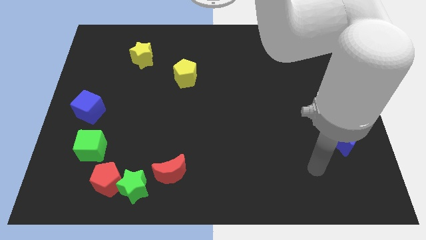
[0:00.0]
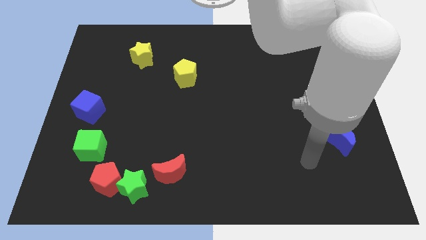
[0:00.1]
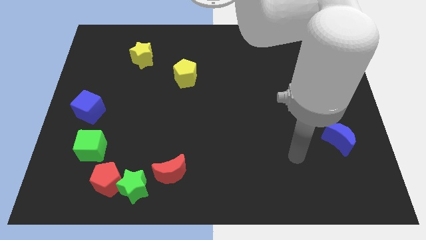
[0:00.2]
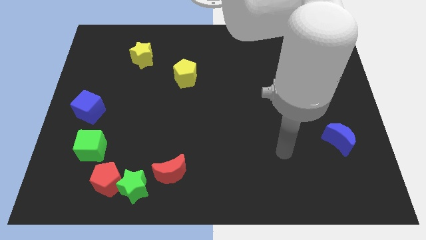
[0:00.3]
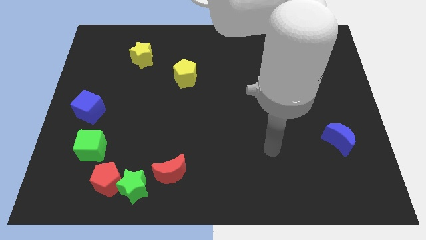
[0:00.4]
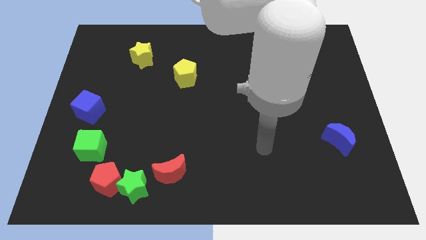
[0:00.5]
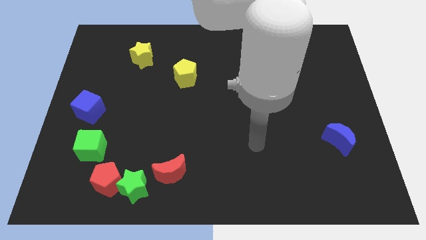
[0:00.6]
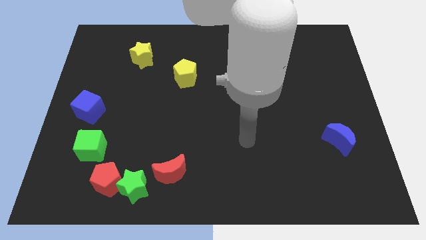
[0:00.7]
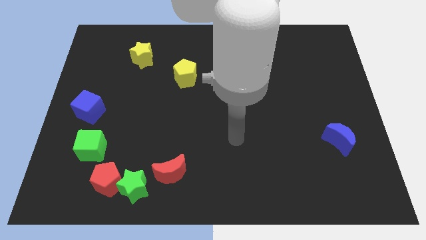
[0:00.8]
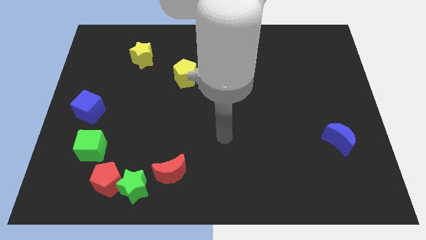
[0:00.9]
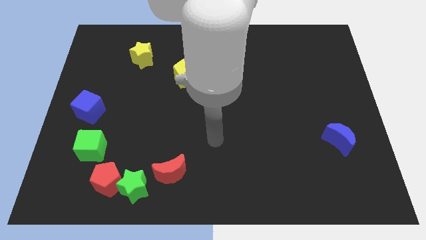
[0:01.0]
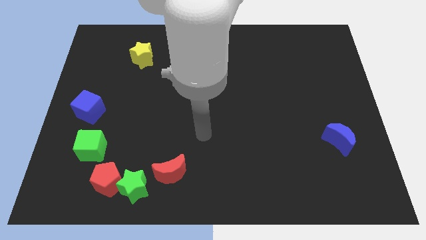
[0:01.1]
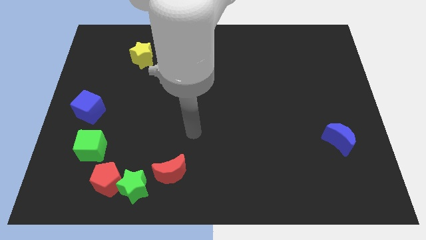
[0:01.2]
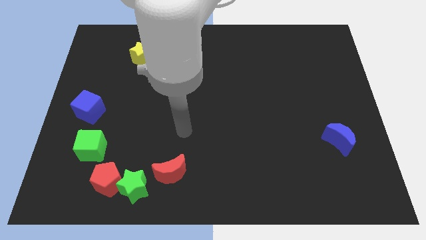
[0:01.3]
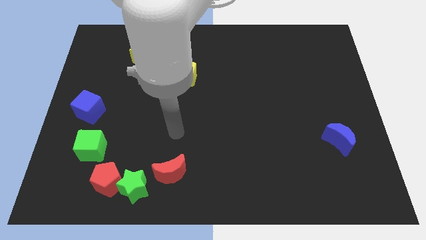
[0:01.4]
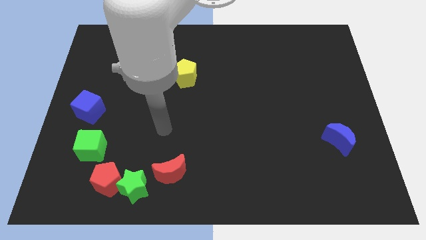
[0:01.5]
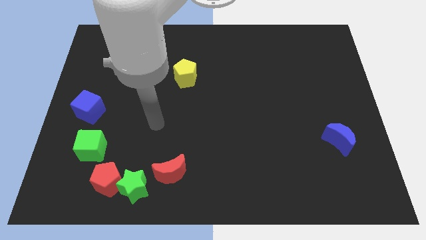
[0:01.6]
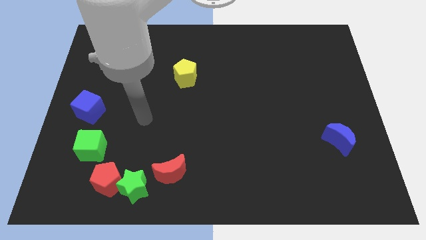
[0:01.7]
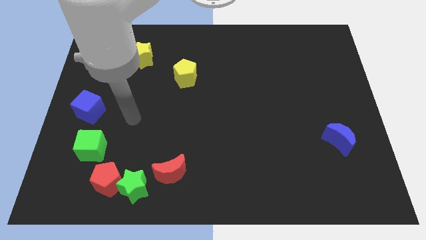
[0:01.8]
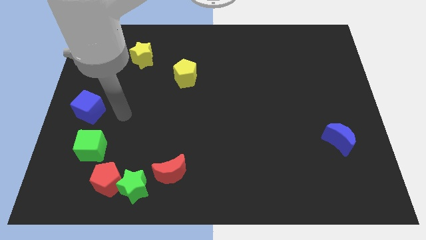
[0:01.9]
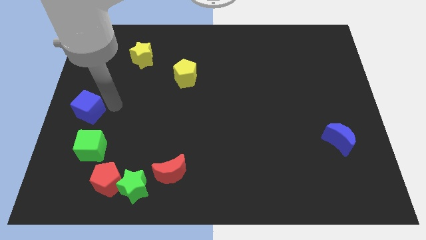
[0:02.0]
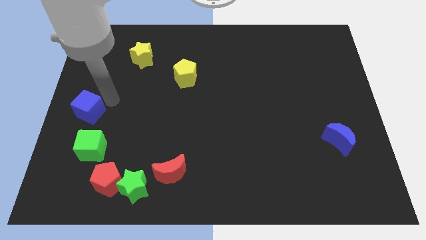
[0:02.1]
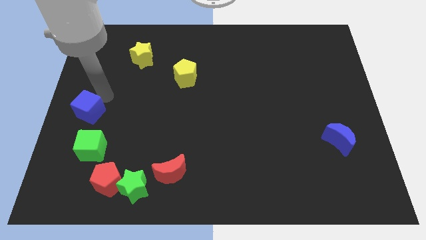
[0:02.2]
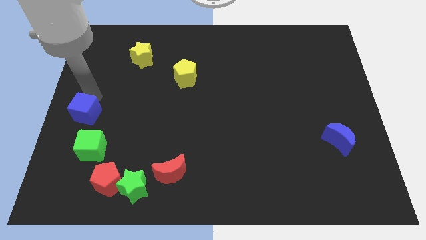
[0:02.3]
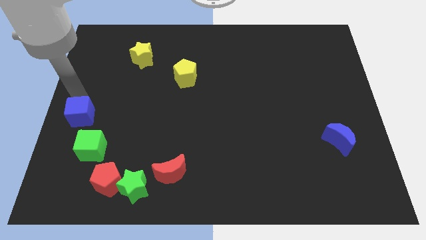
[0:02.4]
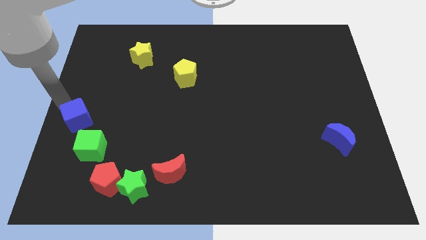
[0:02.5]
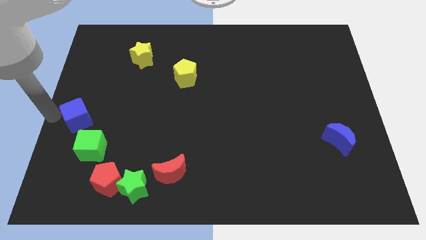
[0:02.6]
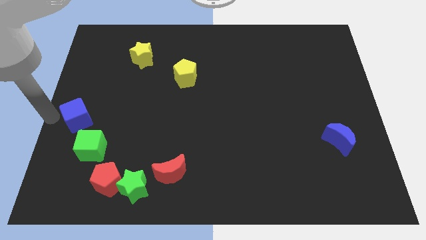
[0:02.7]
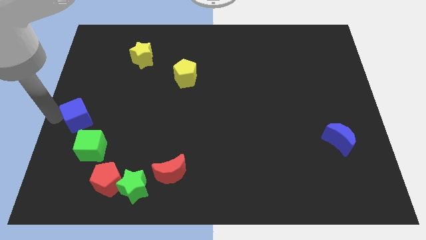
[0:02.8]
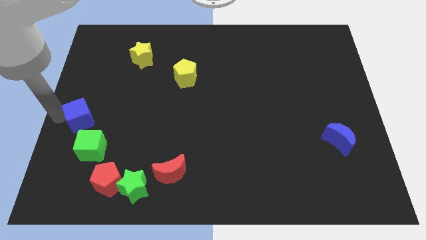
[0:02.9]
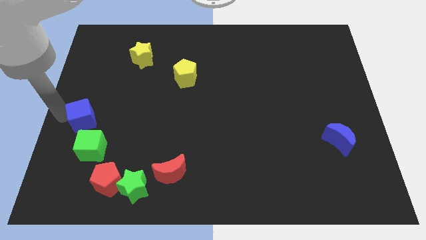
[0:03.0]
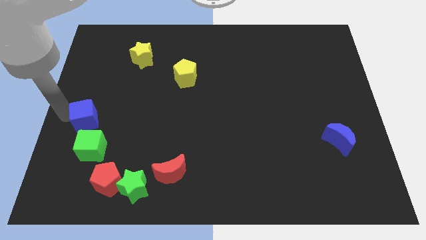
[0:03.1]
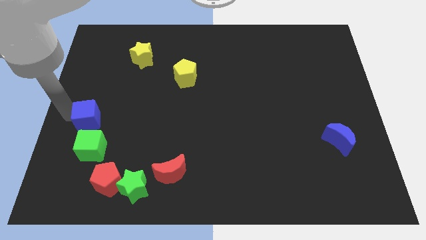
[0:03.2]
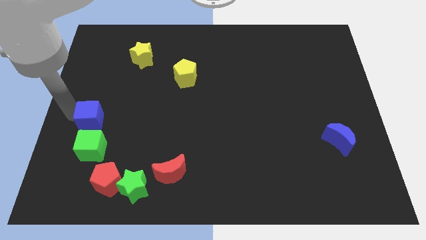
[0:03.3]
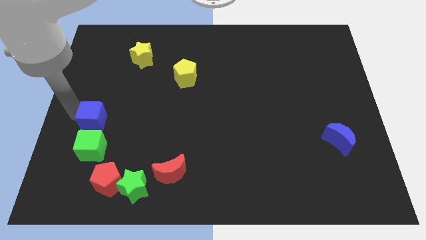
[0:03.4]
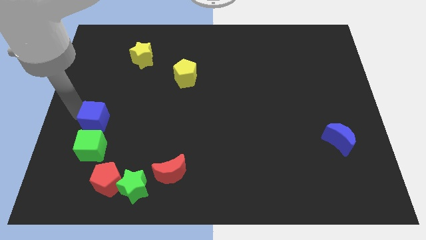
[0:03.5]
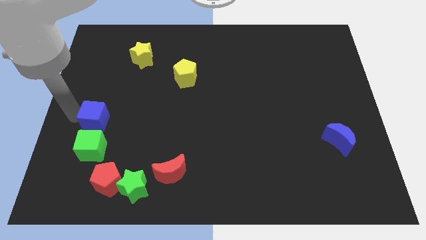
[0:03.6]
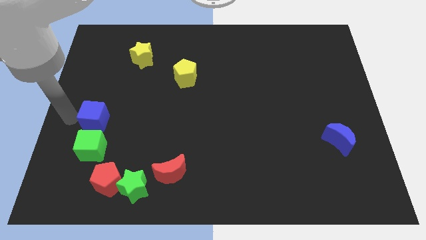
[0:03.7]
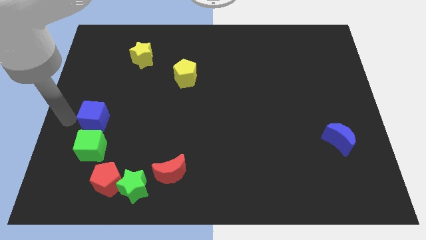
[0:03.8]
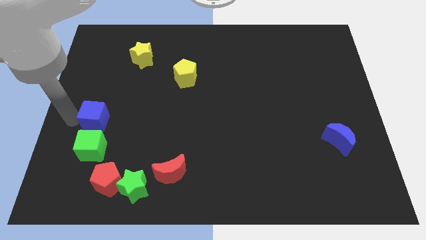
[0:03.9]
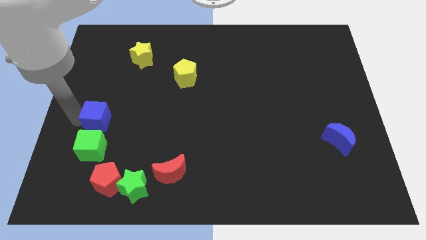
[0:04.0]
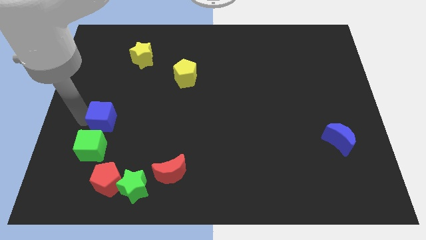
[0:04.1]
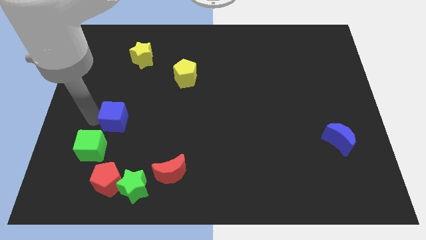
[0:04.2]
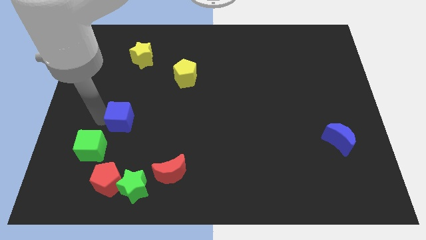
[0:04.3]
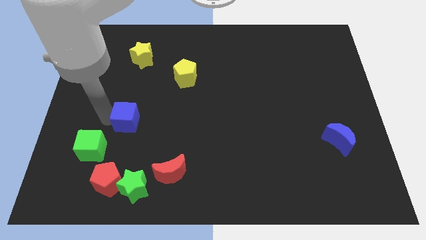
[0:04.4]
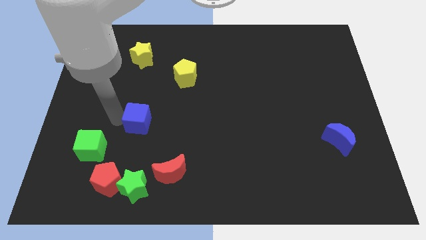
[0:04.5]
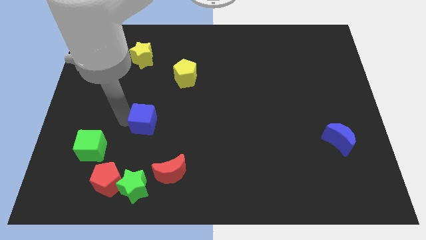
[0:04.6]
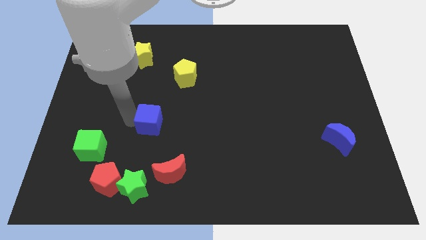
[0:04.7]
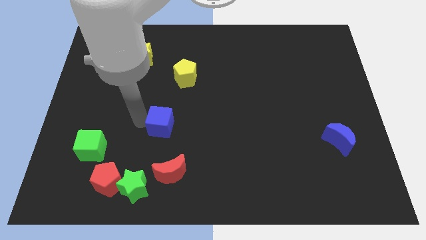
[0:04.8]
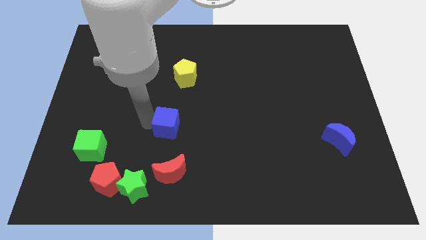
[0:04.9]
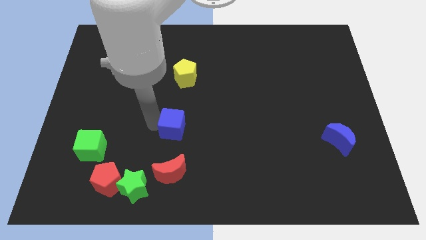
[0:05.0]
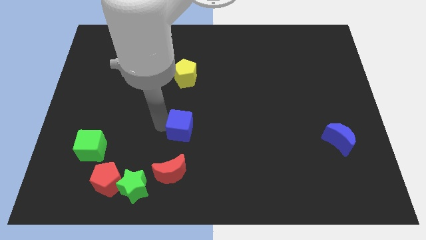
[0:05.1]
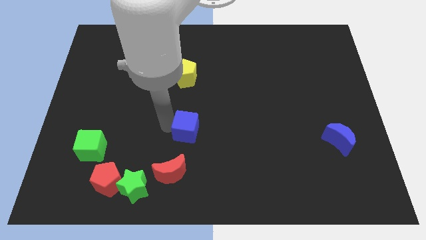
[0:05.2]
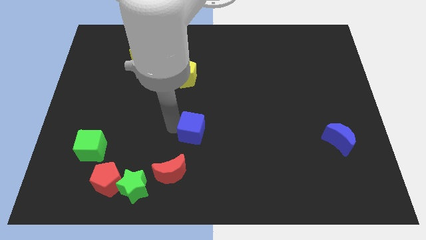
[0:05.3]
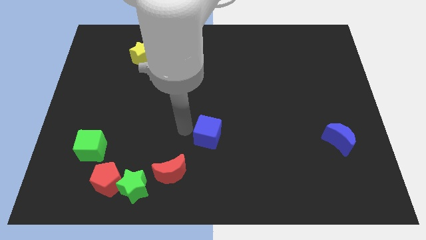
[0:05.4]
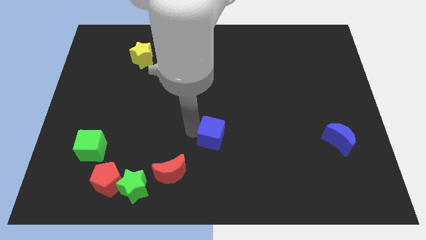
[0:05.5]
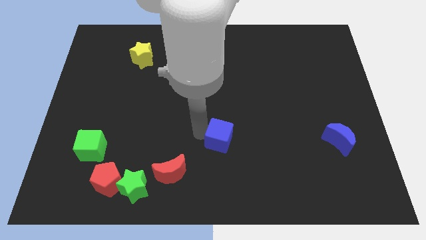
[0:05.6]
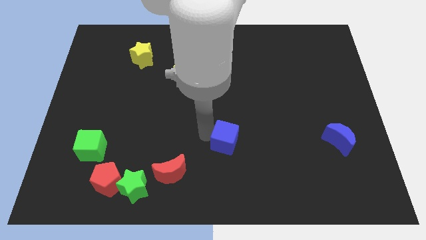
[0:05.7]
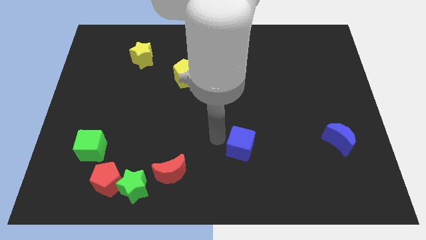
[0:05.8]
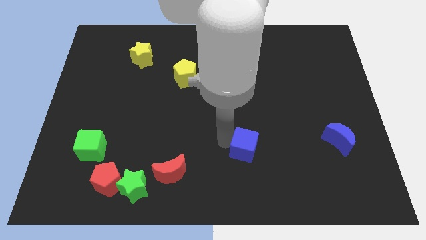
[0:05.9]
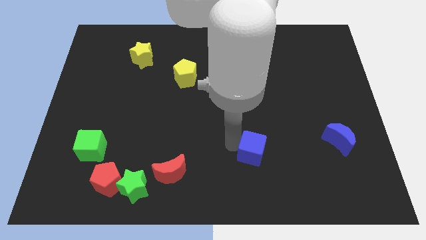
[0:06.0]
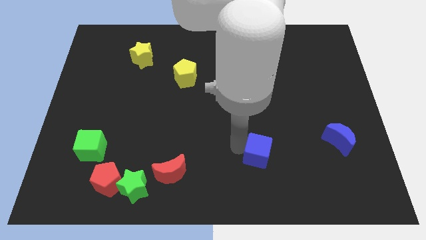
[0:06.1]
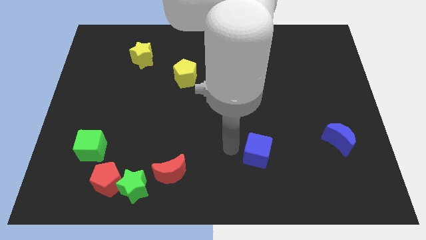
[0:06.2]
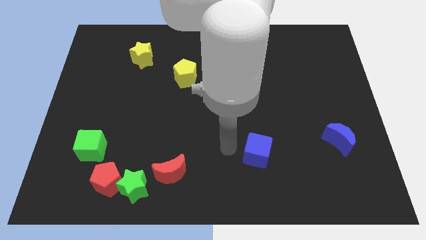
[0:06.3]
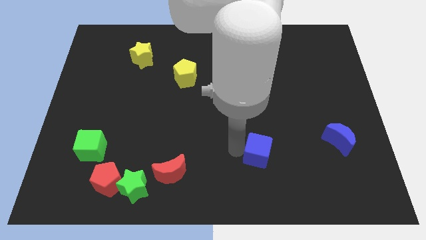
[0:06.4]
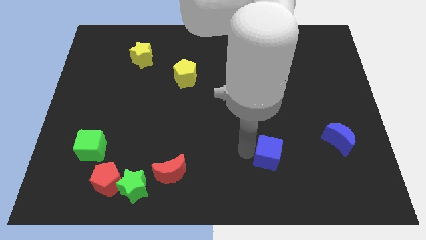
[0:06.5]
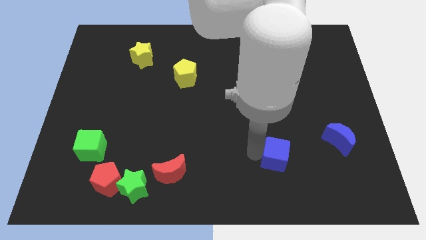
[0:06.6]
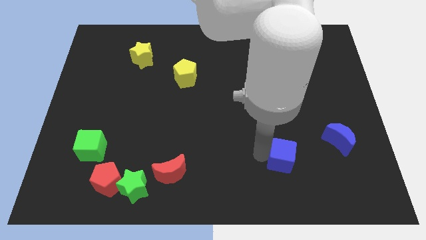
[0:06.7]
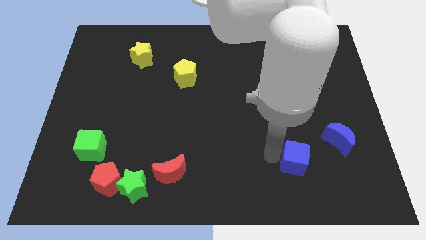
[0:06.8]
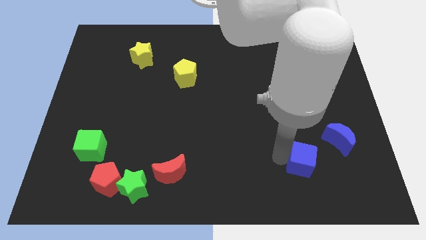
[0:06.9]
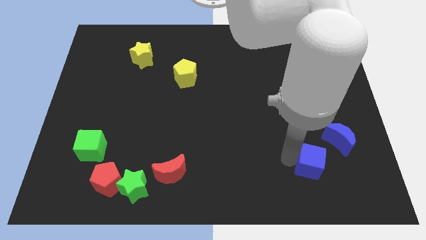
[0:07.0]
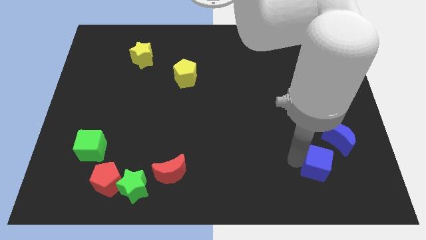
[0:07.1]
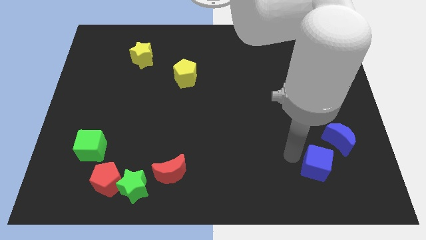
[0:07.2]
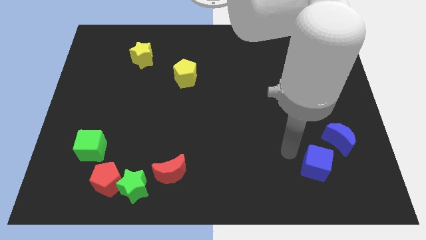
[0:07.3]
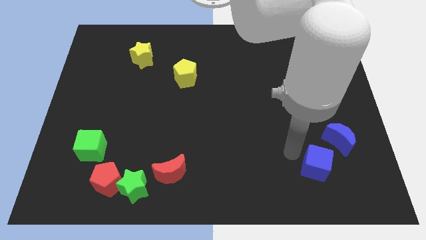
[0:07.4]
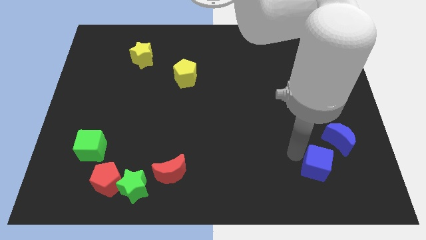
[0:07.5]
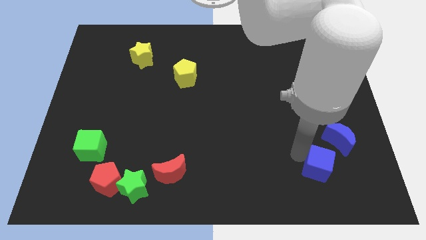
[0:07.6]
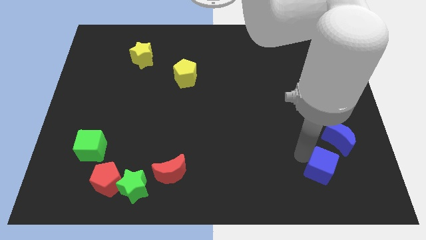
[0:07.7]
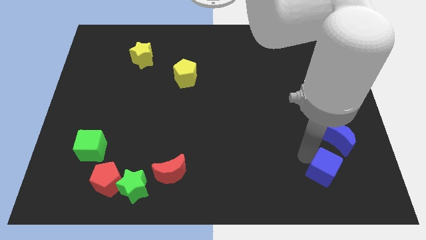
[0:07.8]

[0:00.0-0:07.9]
slide the blue cube to the bottom side of the blue moon
